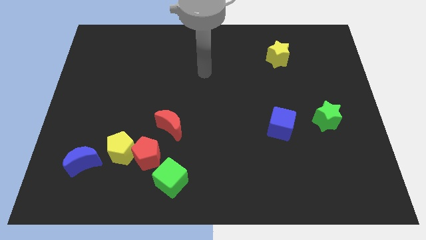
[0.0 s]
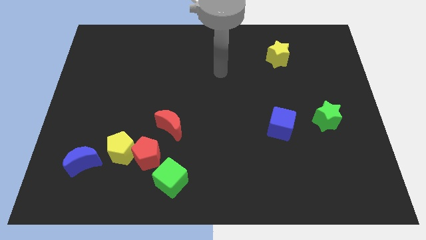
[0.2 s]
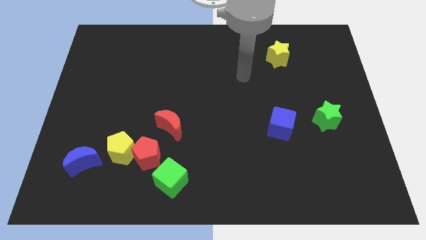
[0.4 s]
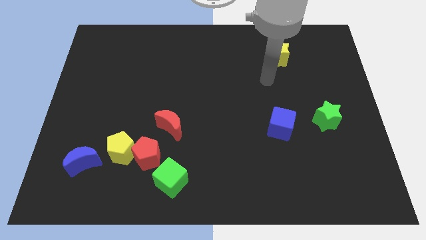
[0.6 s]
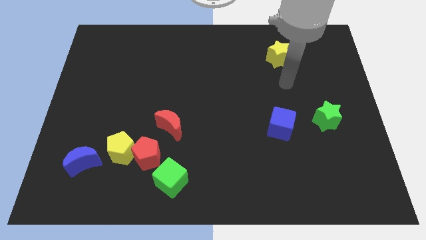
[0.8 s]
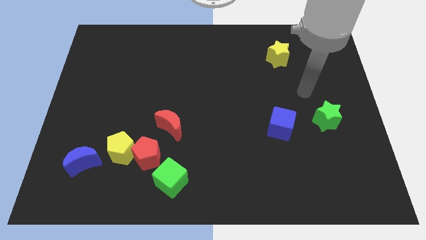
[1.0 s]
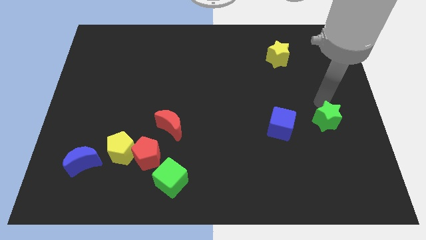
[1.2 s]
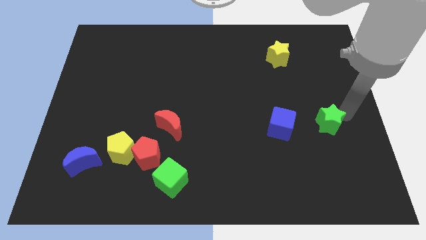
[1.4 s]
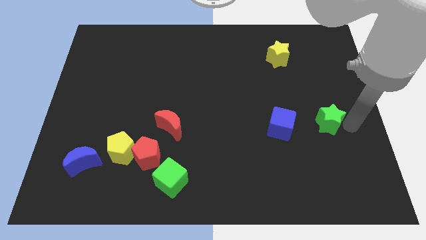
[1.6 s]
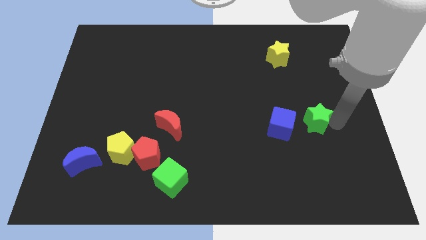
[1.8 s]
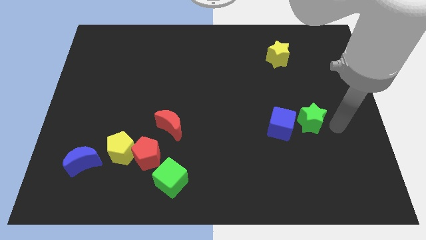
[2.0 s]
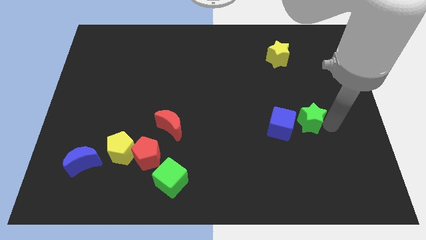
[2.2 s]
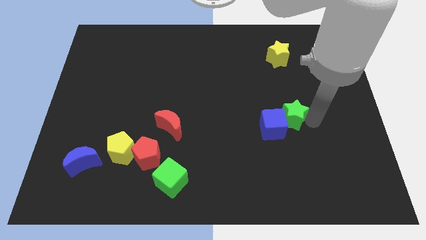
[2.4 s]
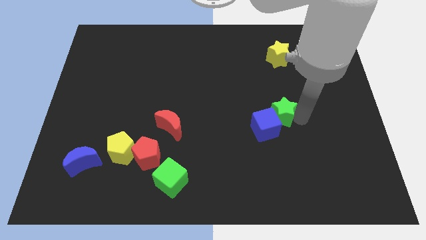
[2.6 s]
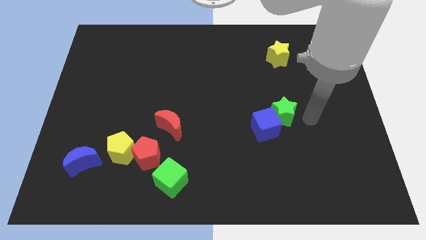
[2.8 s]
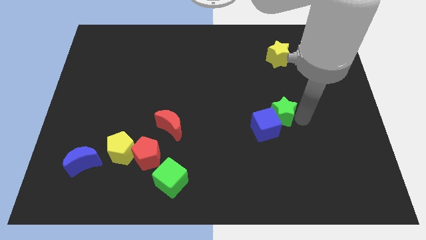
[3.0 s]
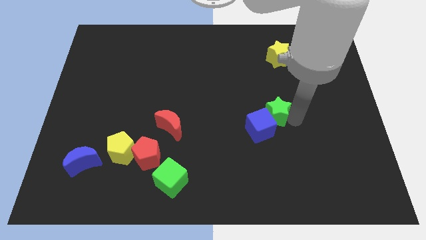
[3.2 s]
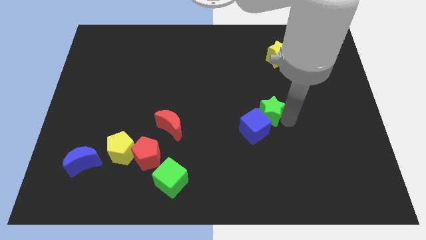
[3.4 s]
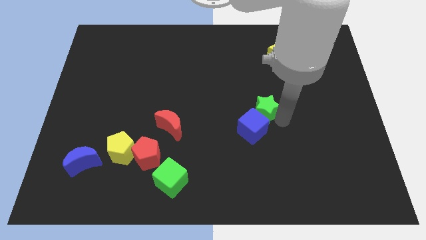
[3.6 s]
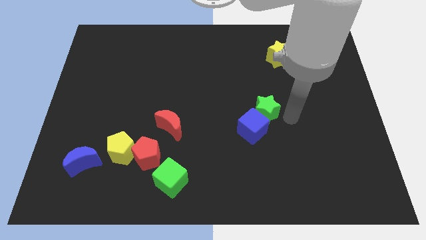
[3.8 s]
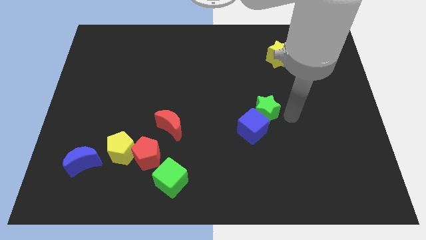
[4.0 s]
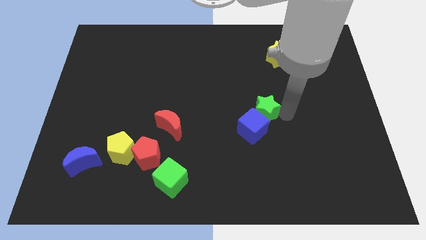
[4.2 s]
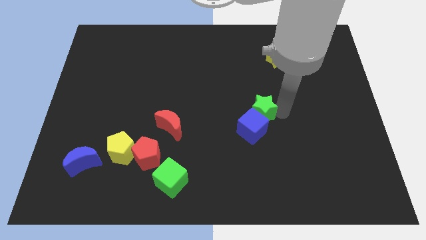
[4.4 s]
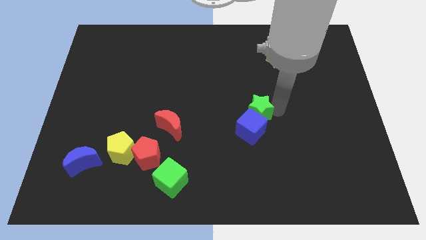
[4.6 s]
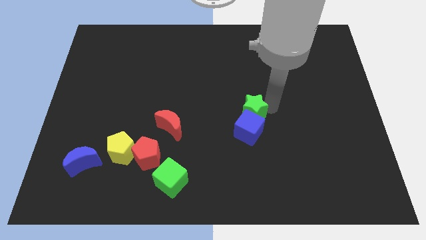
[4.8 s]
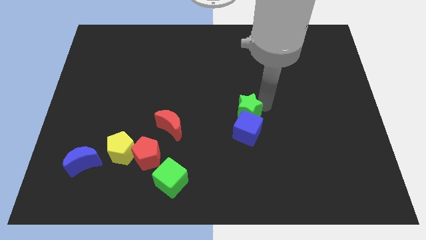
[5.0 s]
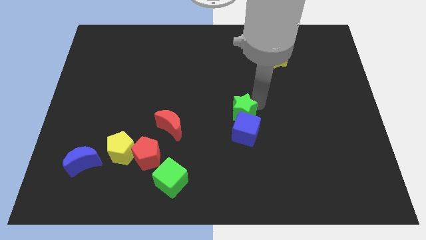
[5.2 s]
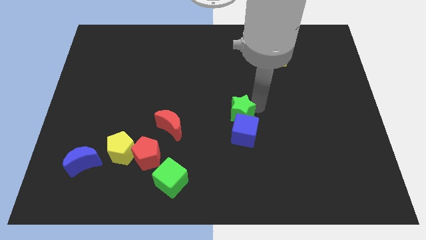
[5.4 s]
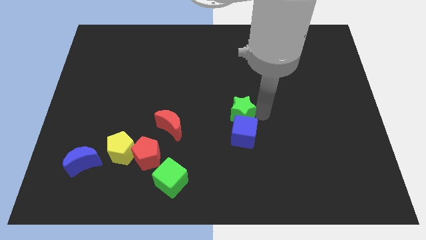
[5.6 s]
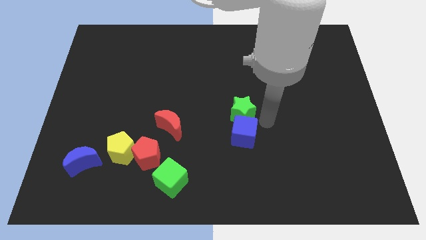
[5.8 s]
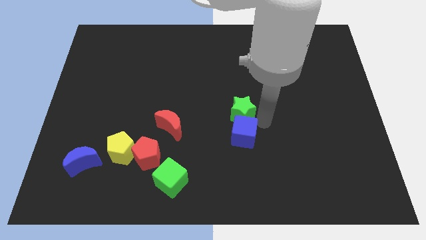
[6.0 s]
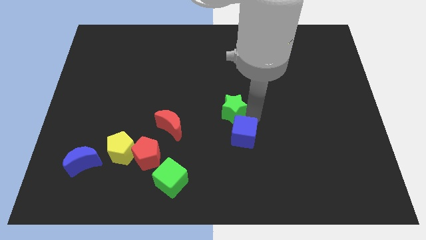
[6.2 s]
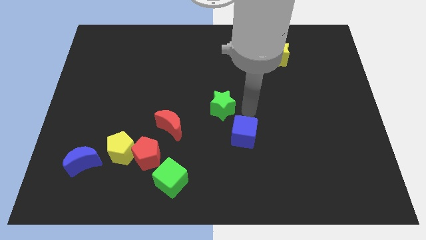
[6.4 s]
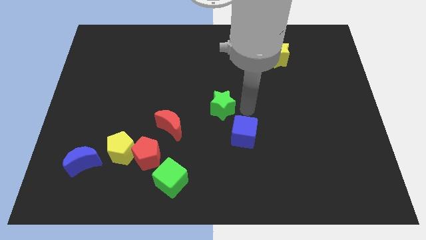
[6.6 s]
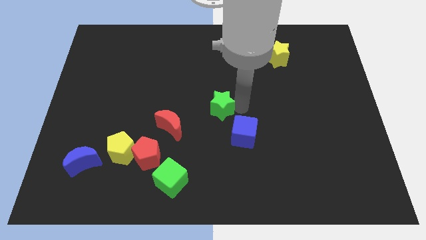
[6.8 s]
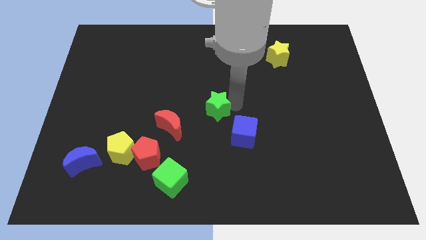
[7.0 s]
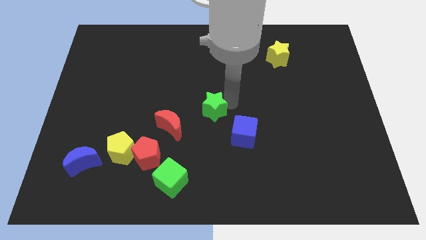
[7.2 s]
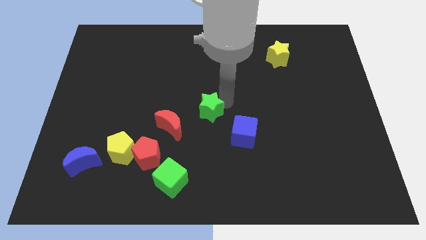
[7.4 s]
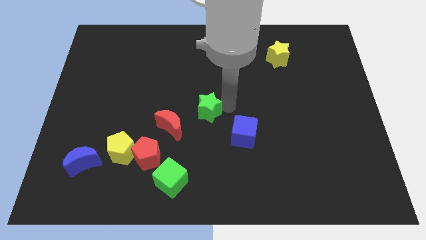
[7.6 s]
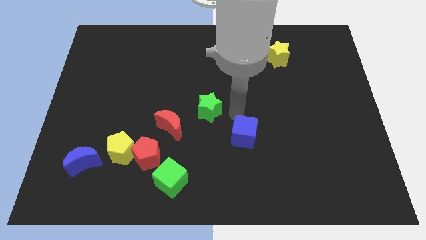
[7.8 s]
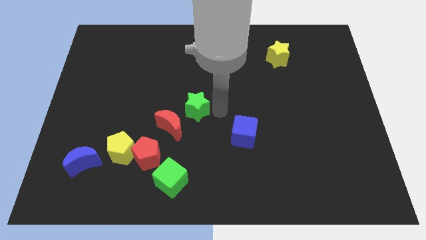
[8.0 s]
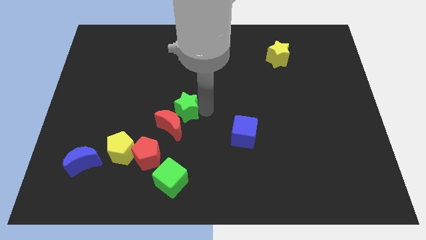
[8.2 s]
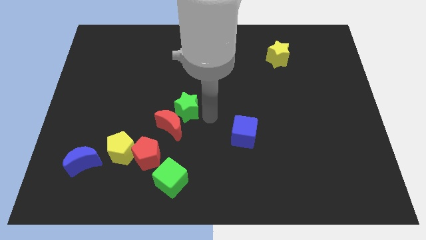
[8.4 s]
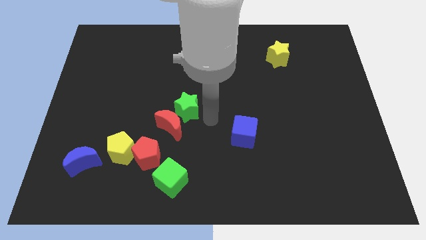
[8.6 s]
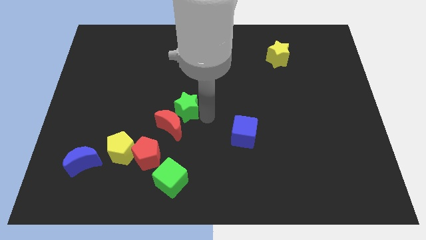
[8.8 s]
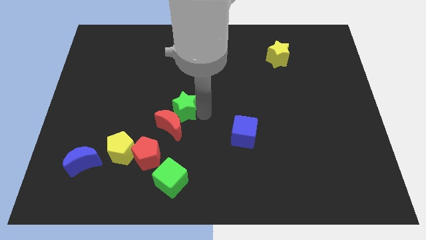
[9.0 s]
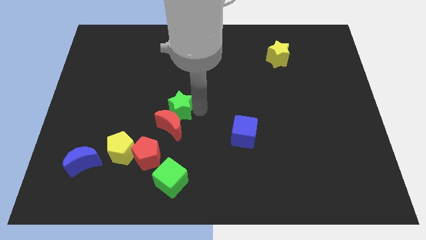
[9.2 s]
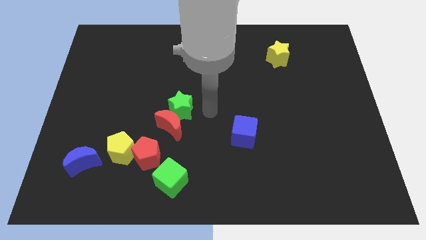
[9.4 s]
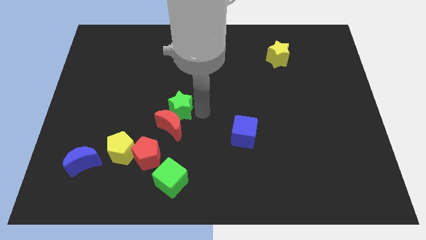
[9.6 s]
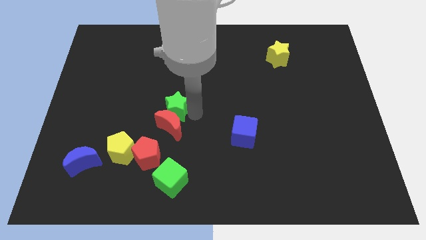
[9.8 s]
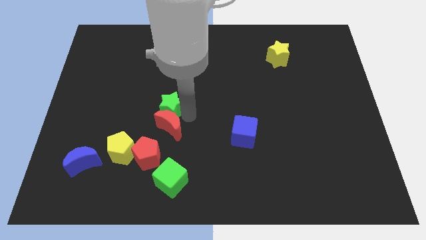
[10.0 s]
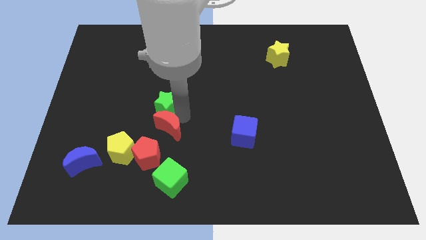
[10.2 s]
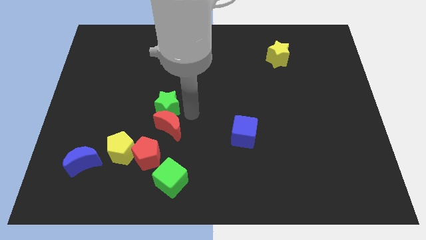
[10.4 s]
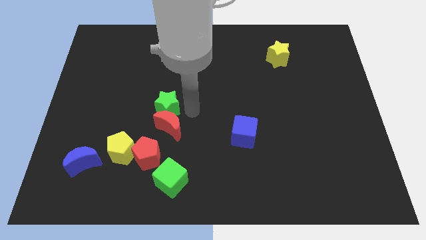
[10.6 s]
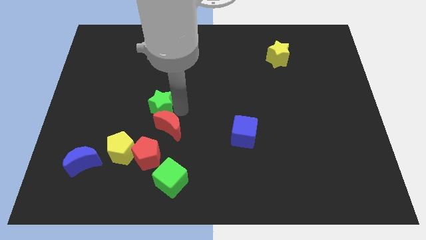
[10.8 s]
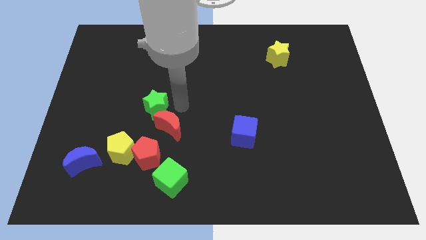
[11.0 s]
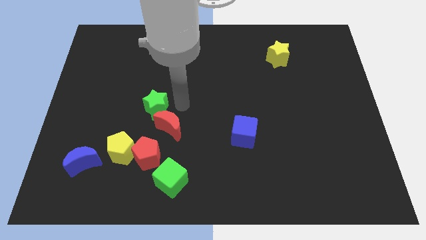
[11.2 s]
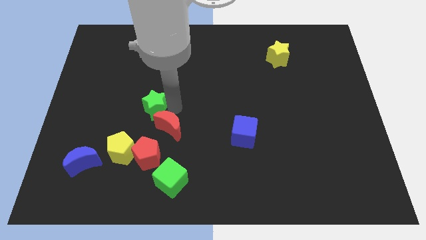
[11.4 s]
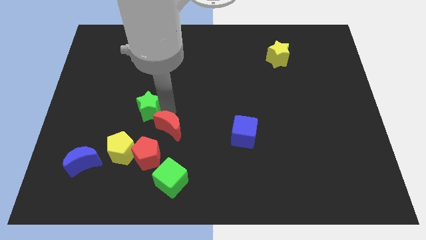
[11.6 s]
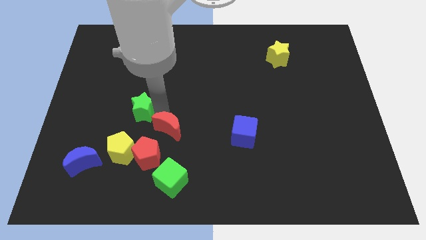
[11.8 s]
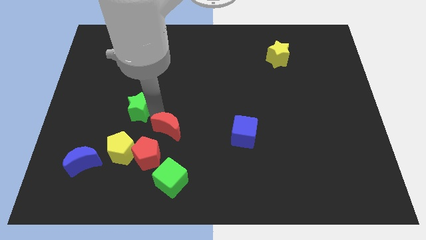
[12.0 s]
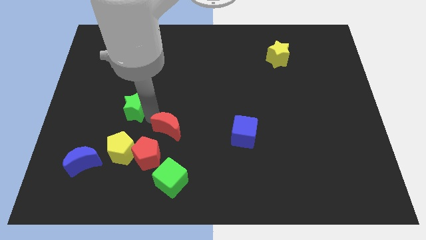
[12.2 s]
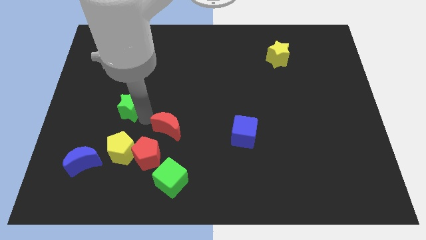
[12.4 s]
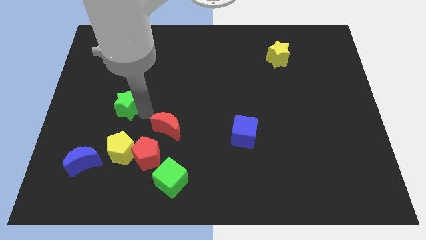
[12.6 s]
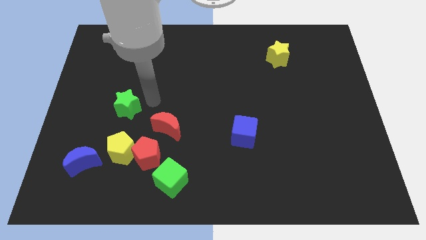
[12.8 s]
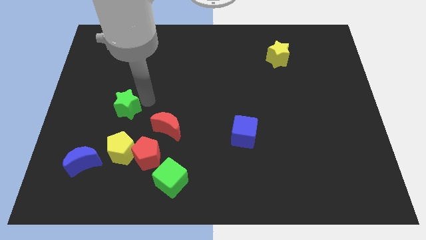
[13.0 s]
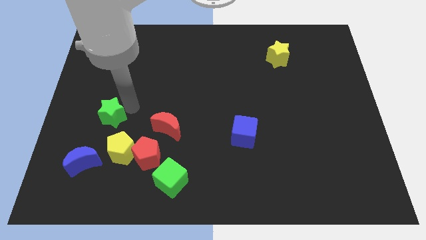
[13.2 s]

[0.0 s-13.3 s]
slide the green star to the top of the blue moon

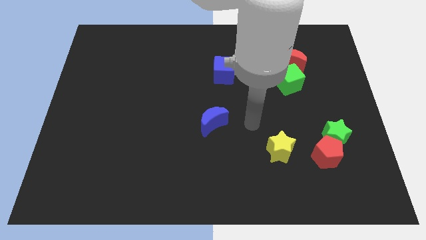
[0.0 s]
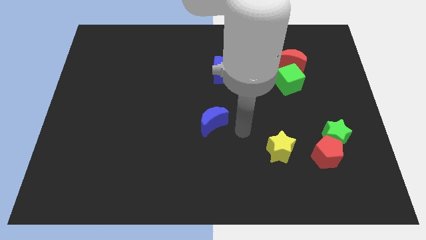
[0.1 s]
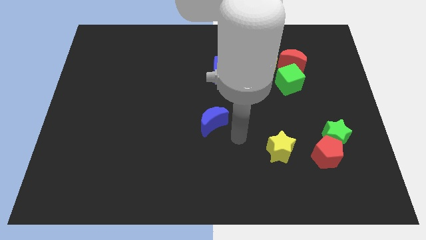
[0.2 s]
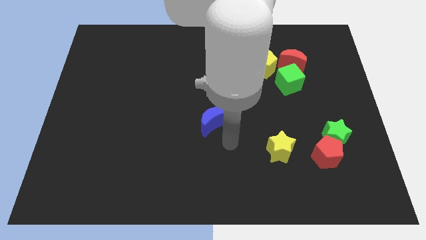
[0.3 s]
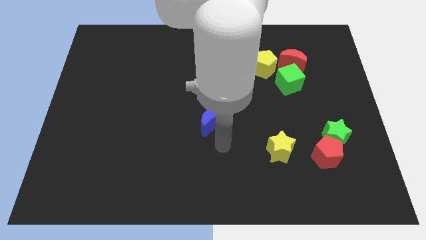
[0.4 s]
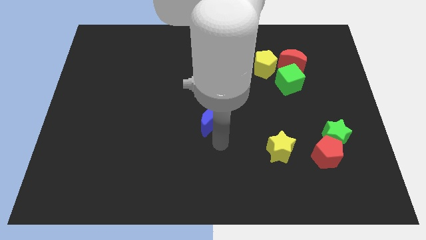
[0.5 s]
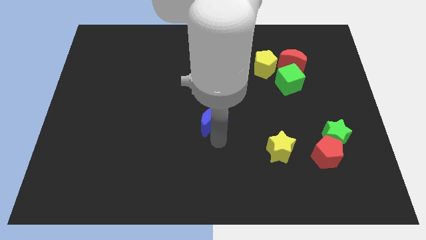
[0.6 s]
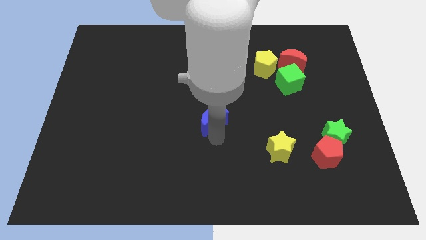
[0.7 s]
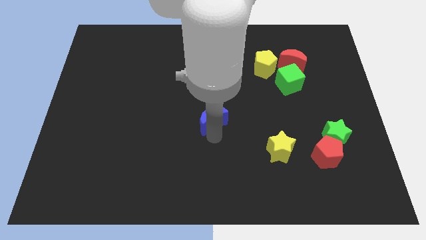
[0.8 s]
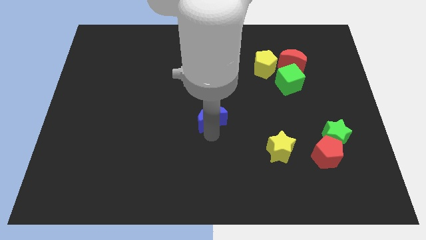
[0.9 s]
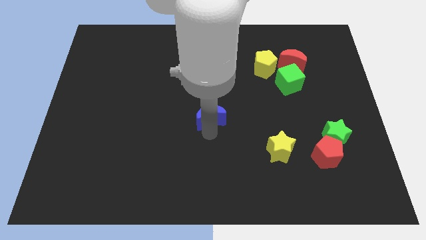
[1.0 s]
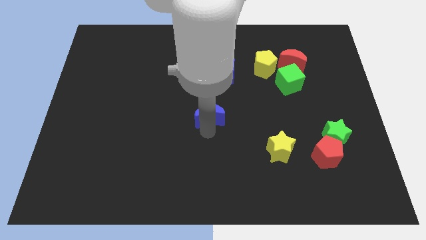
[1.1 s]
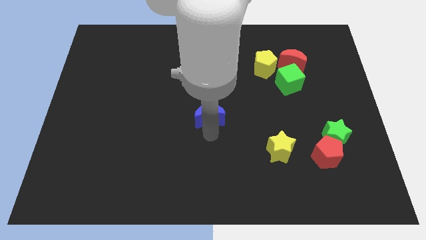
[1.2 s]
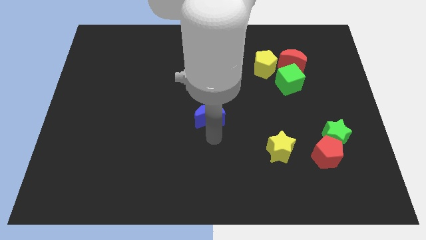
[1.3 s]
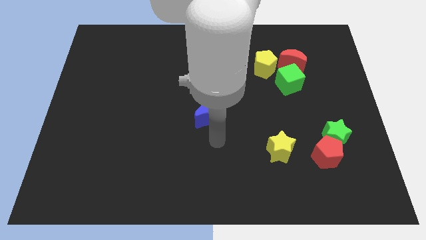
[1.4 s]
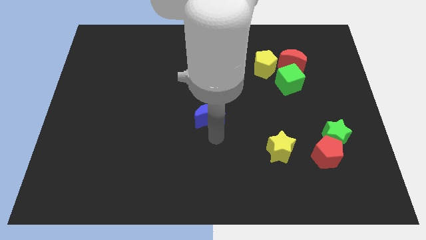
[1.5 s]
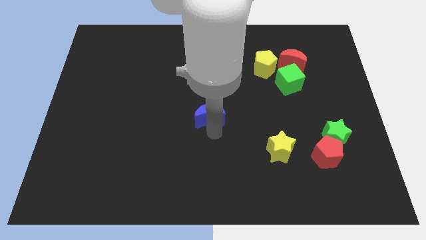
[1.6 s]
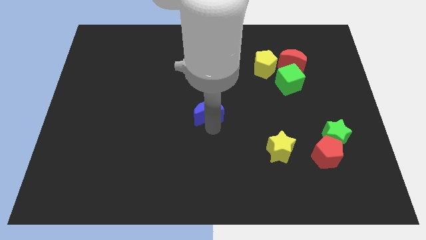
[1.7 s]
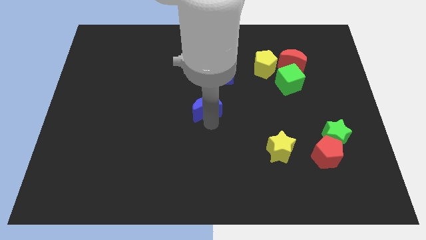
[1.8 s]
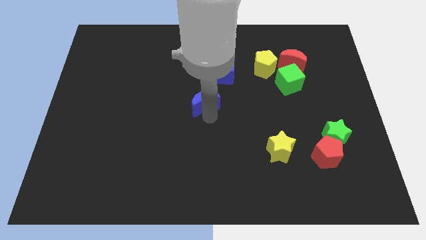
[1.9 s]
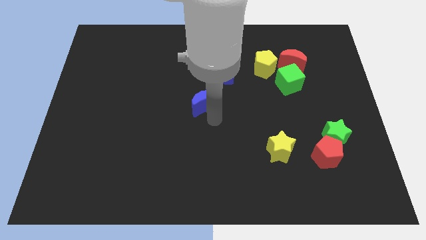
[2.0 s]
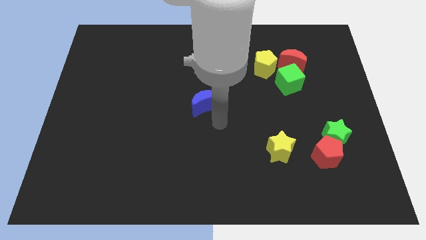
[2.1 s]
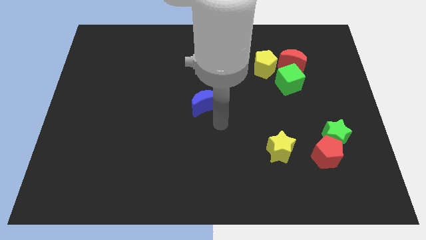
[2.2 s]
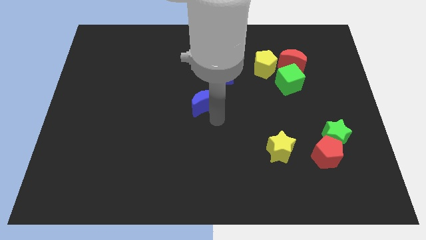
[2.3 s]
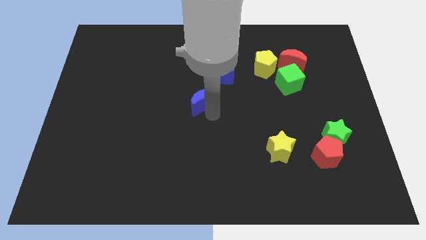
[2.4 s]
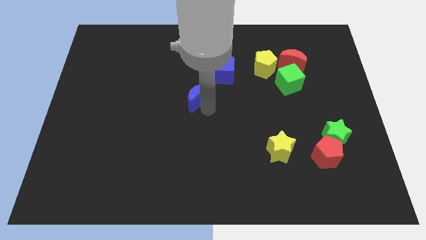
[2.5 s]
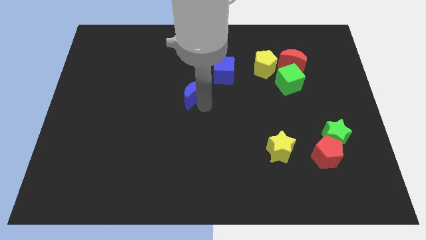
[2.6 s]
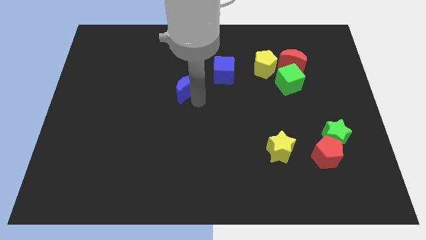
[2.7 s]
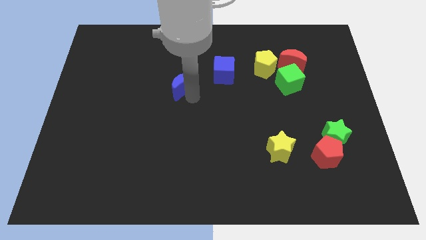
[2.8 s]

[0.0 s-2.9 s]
put the blue moon to the left side of the blue cube
